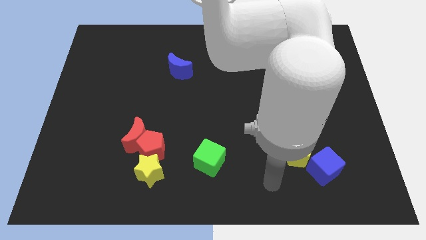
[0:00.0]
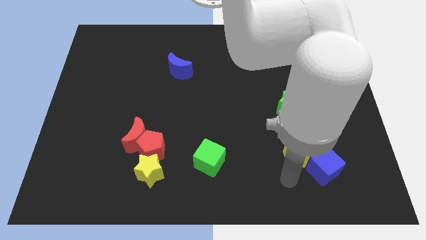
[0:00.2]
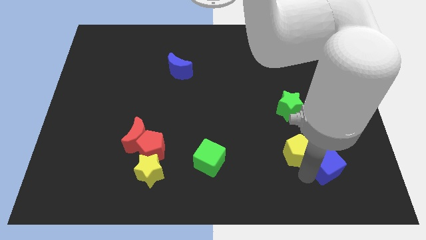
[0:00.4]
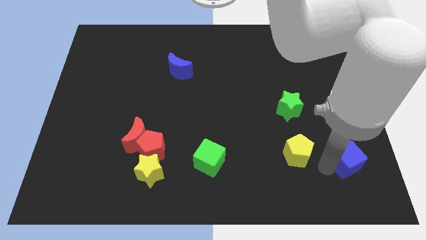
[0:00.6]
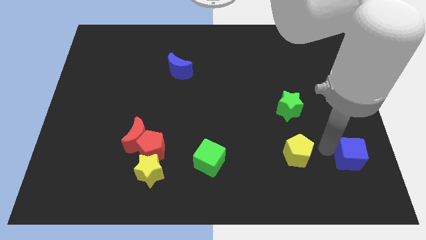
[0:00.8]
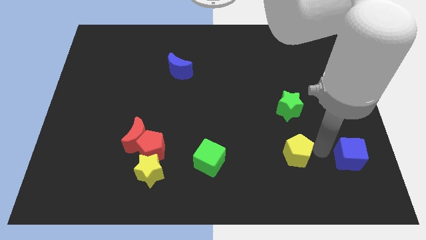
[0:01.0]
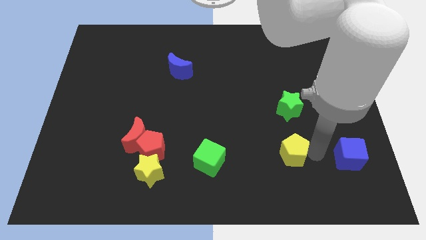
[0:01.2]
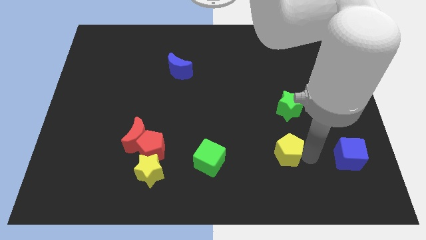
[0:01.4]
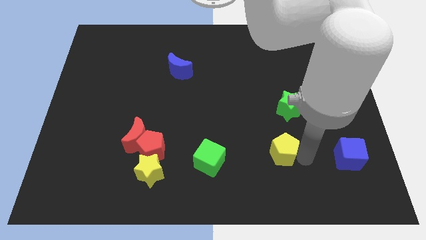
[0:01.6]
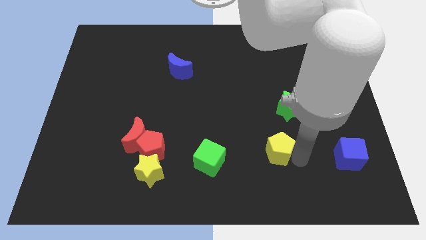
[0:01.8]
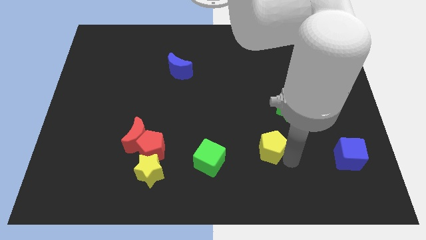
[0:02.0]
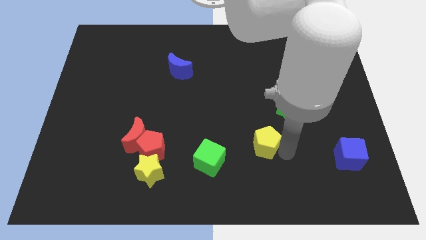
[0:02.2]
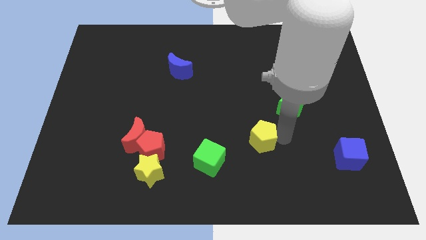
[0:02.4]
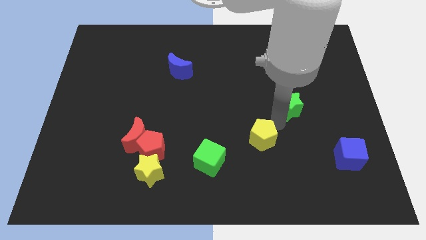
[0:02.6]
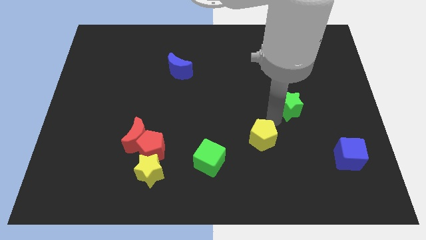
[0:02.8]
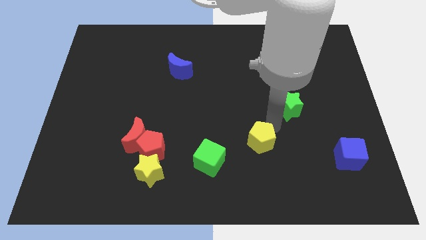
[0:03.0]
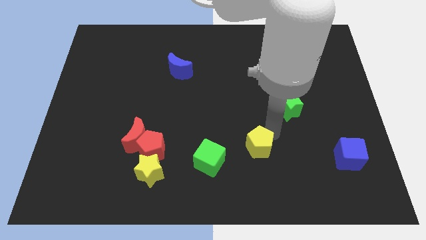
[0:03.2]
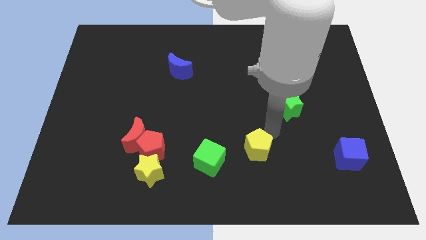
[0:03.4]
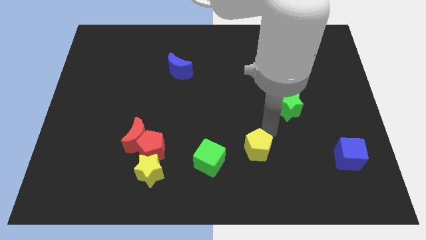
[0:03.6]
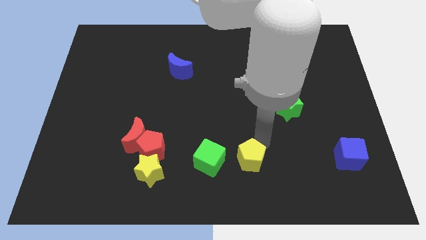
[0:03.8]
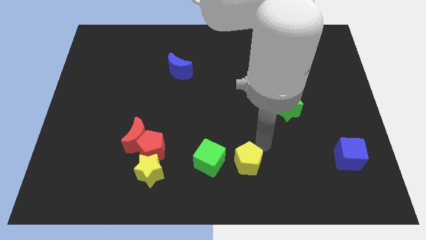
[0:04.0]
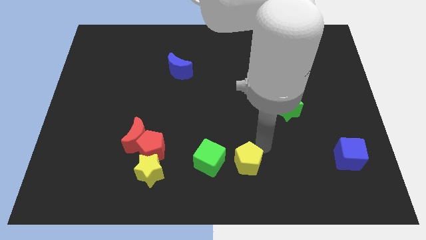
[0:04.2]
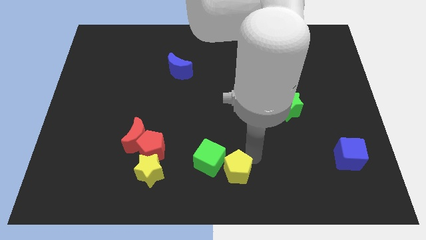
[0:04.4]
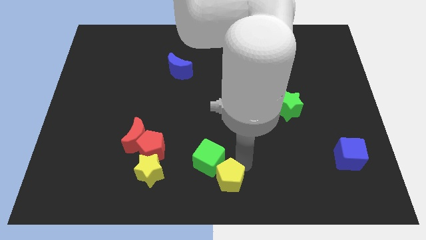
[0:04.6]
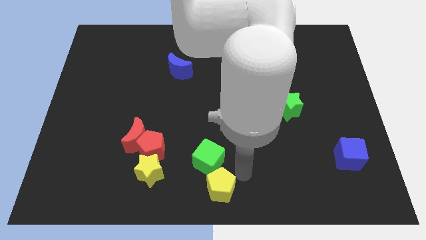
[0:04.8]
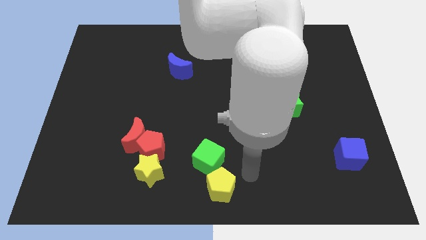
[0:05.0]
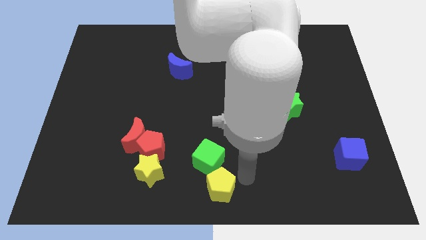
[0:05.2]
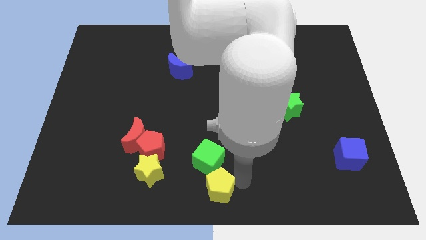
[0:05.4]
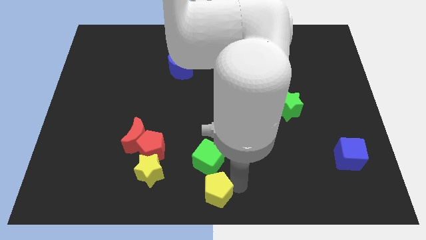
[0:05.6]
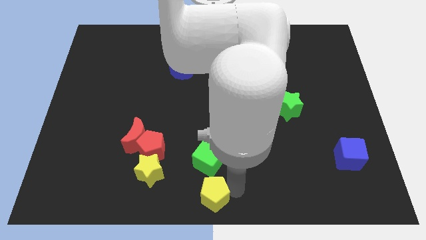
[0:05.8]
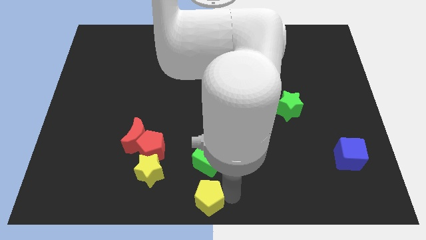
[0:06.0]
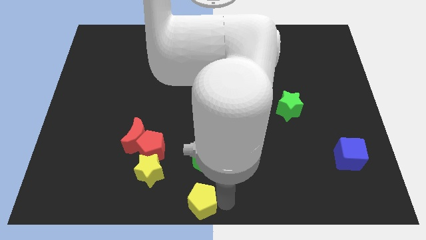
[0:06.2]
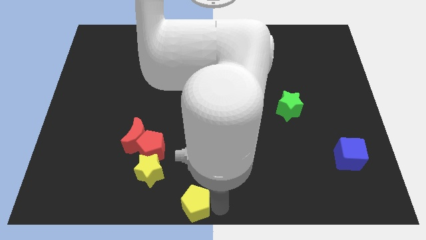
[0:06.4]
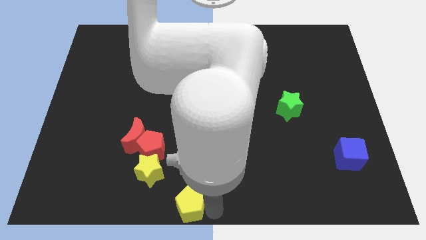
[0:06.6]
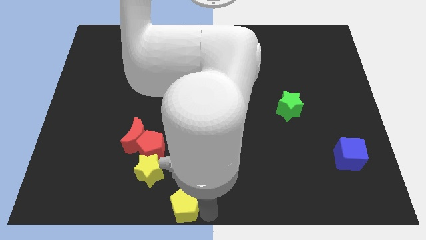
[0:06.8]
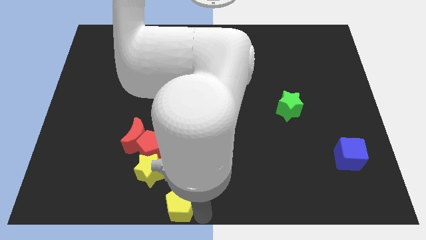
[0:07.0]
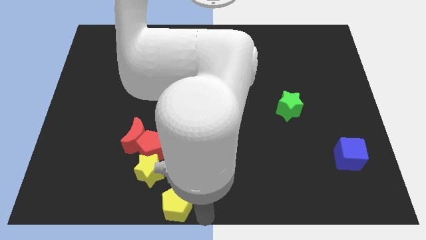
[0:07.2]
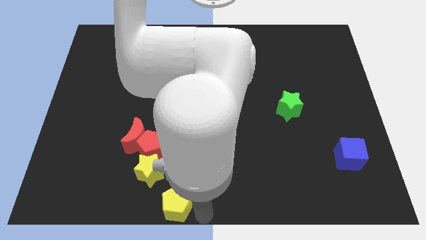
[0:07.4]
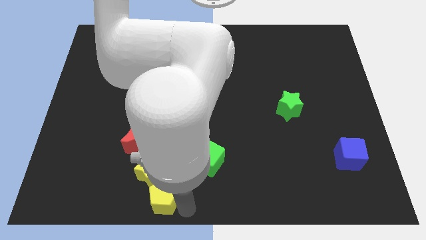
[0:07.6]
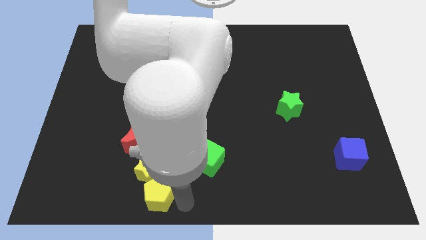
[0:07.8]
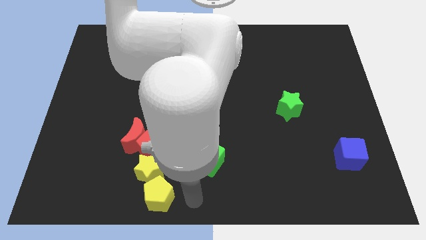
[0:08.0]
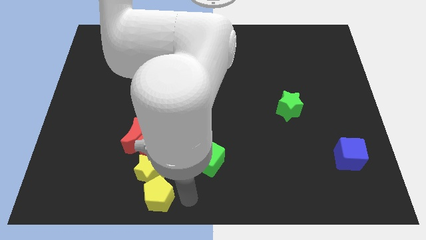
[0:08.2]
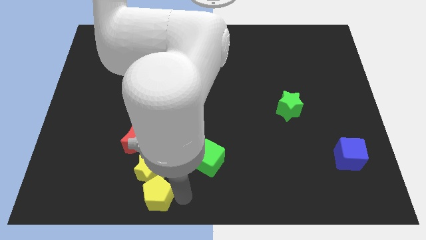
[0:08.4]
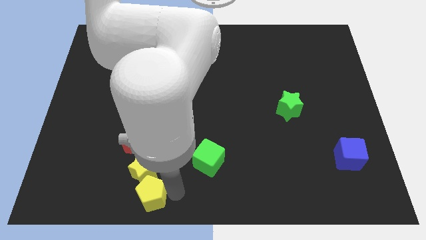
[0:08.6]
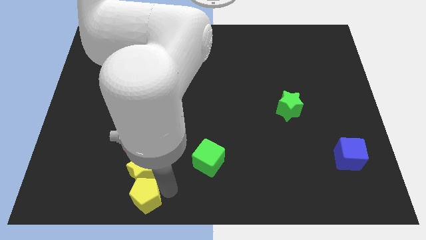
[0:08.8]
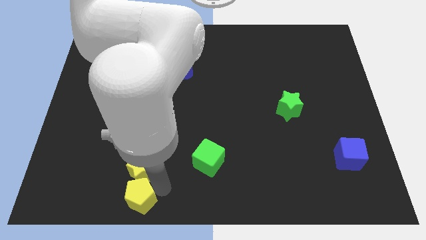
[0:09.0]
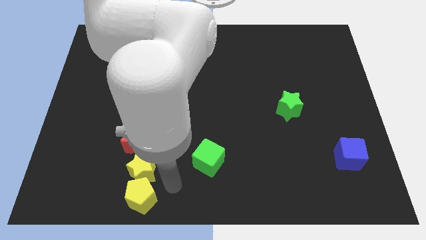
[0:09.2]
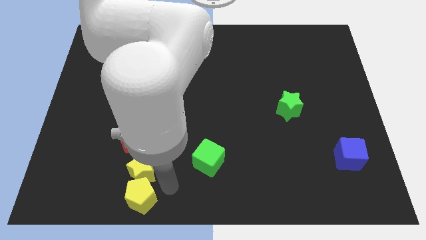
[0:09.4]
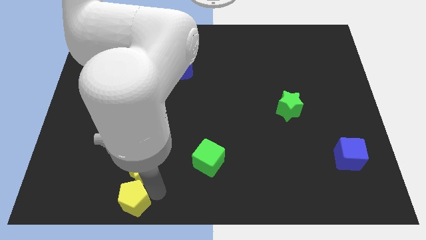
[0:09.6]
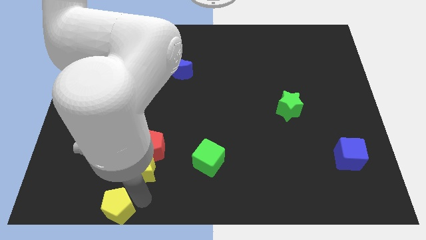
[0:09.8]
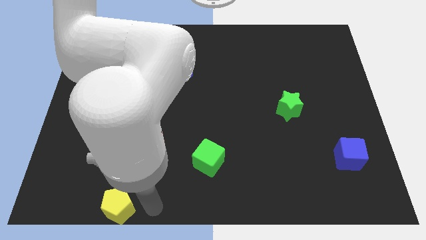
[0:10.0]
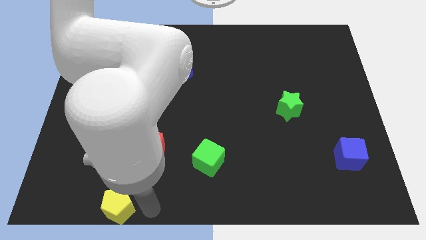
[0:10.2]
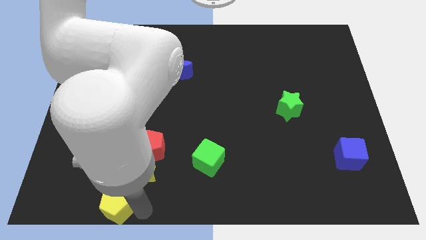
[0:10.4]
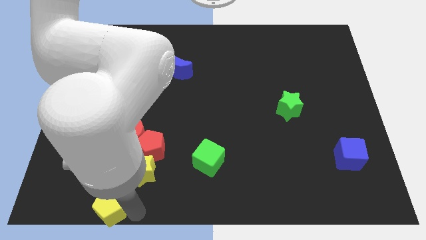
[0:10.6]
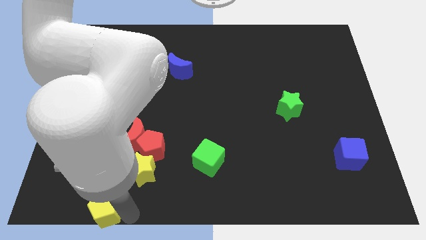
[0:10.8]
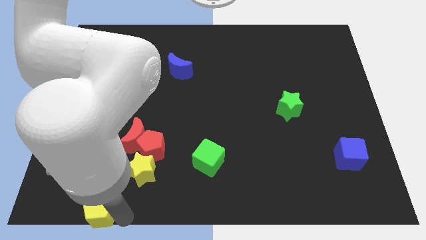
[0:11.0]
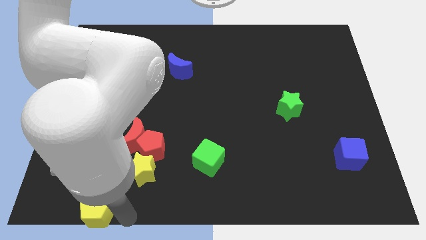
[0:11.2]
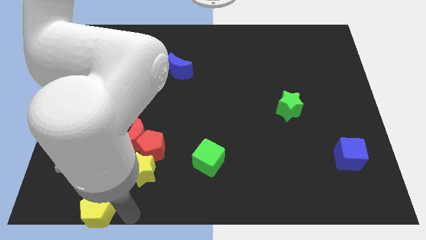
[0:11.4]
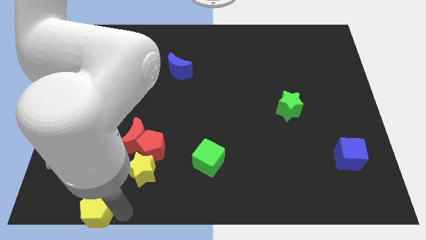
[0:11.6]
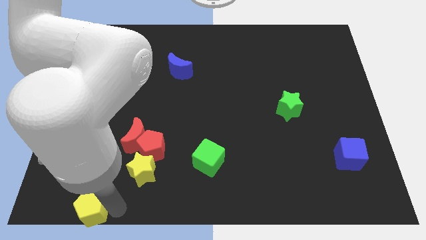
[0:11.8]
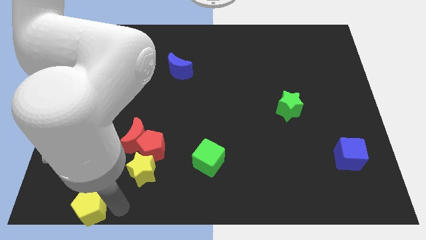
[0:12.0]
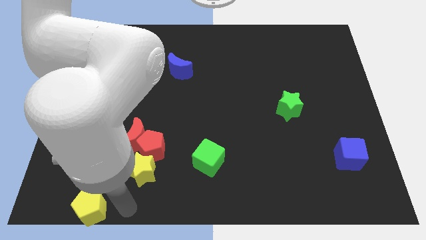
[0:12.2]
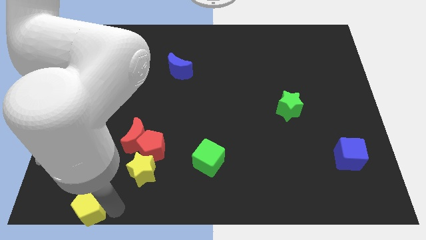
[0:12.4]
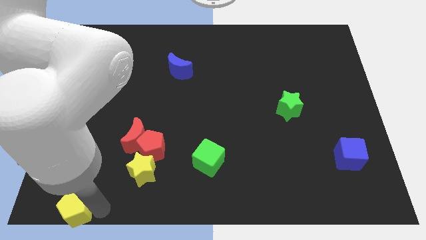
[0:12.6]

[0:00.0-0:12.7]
push the yellow pentagon to the bottom left

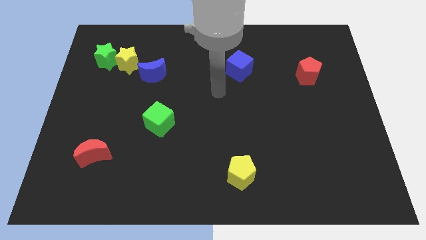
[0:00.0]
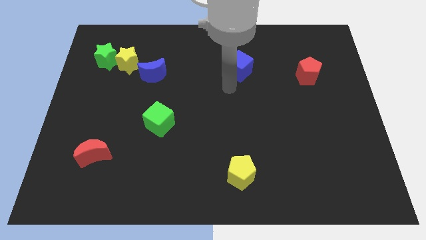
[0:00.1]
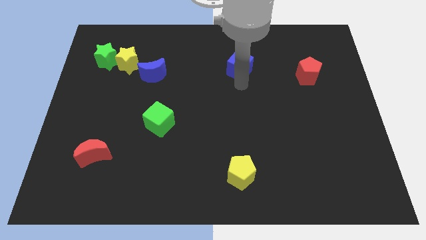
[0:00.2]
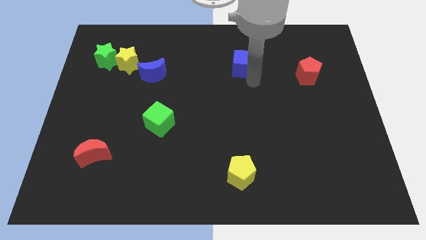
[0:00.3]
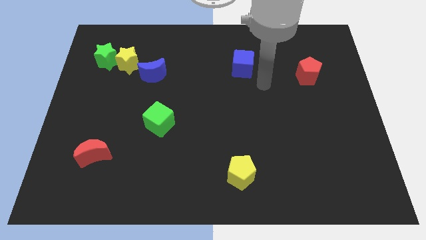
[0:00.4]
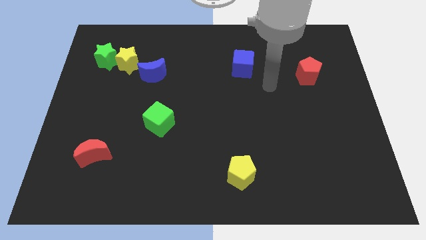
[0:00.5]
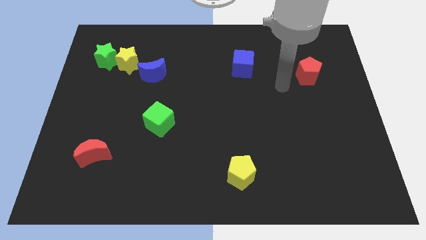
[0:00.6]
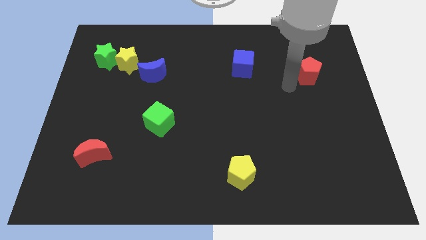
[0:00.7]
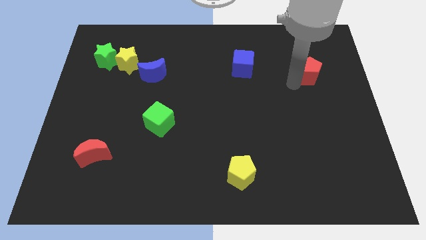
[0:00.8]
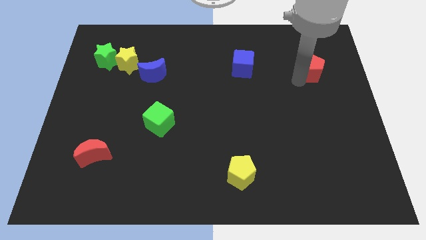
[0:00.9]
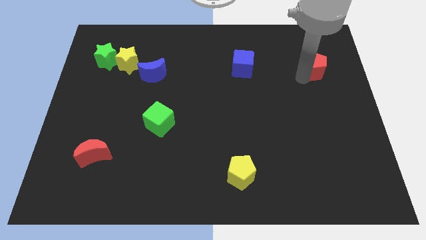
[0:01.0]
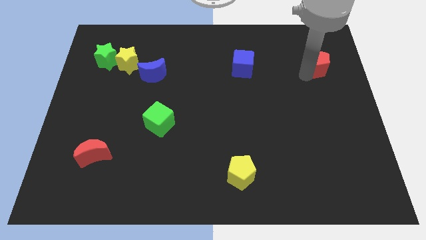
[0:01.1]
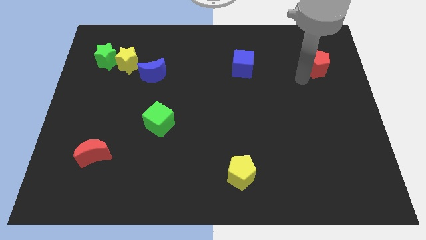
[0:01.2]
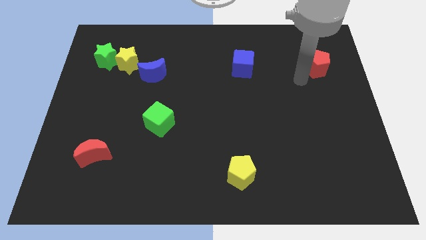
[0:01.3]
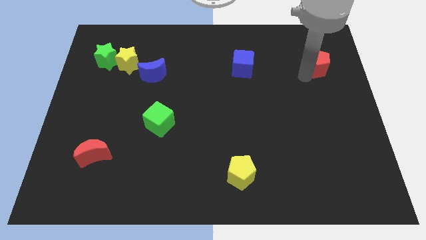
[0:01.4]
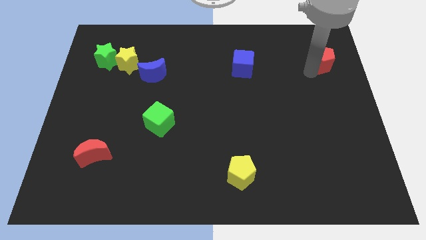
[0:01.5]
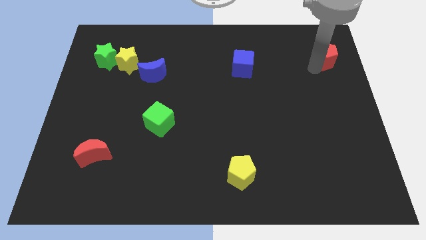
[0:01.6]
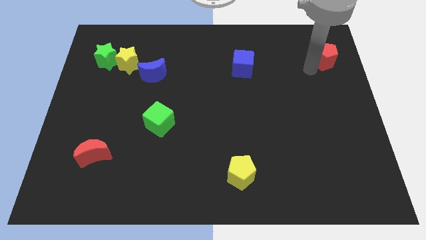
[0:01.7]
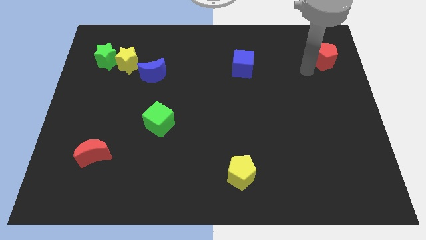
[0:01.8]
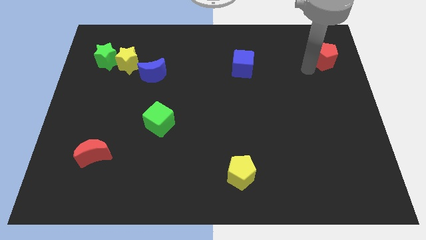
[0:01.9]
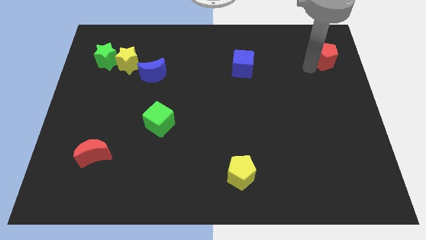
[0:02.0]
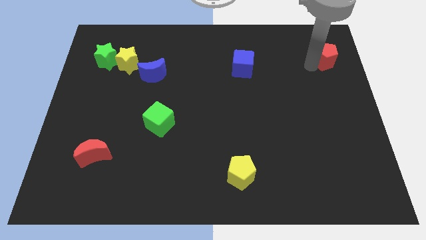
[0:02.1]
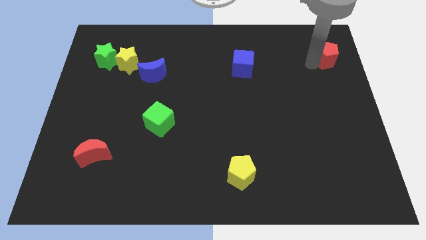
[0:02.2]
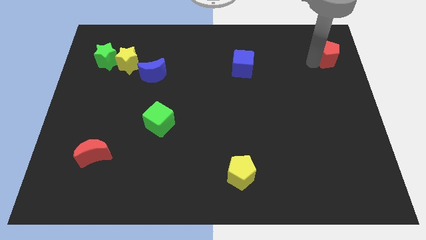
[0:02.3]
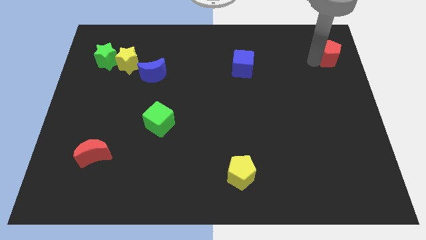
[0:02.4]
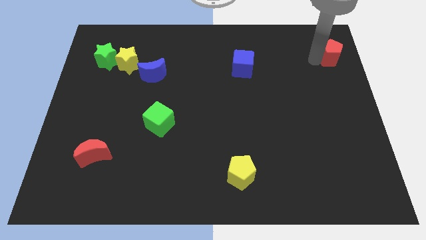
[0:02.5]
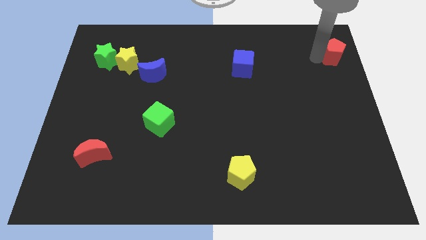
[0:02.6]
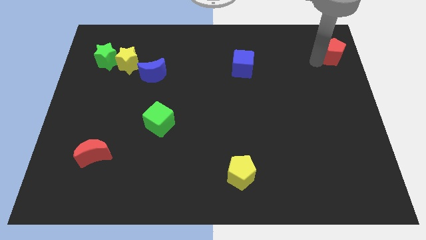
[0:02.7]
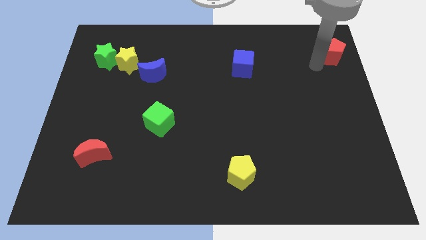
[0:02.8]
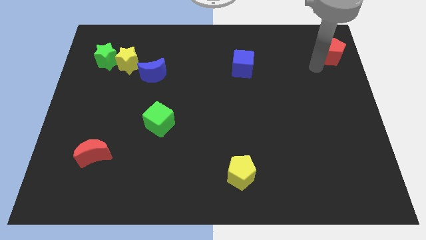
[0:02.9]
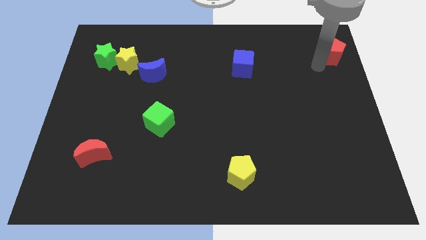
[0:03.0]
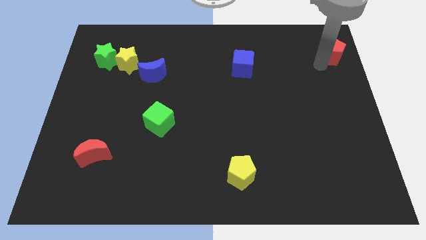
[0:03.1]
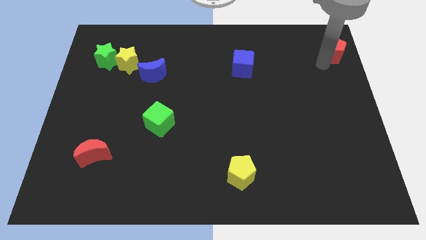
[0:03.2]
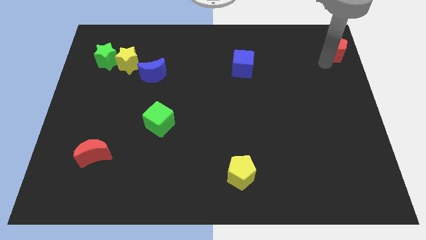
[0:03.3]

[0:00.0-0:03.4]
push the red pentagon to the top right of the board
